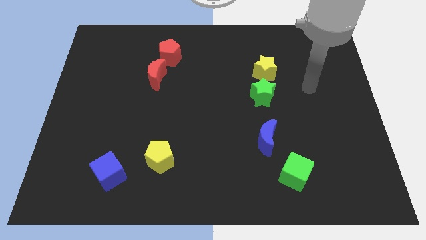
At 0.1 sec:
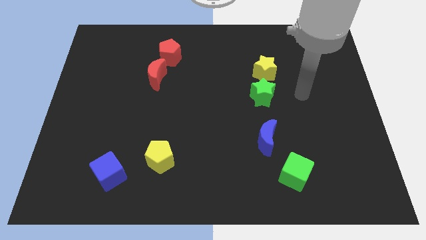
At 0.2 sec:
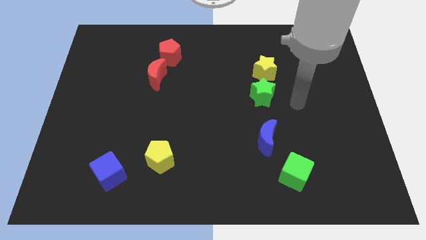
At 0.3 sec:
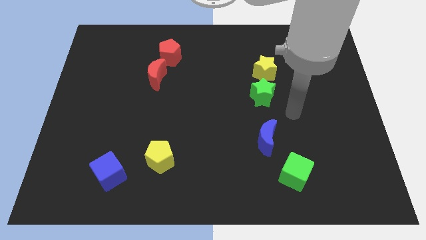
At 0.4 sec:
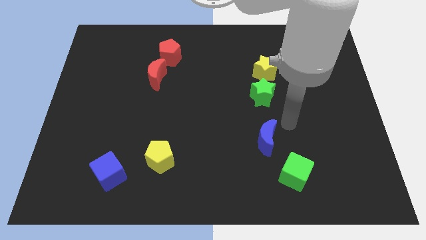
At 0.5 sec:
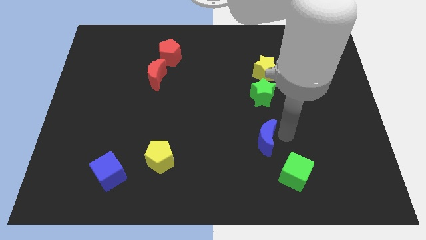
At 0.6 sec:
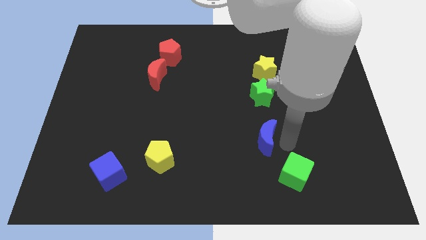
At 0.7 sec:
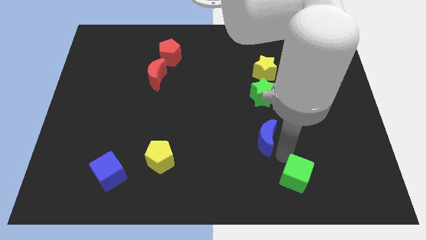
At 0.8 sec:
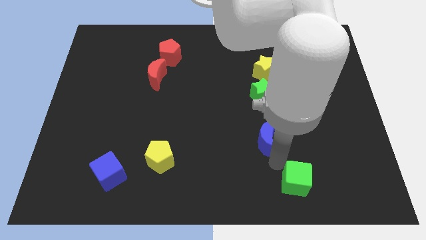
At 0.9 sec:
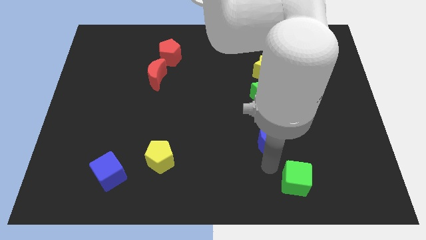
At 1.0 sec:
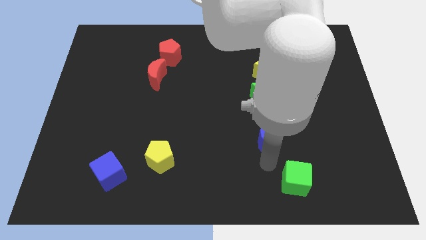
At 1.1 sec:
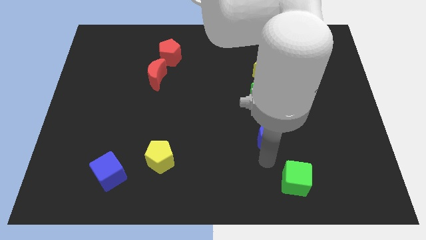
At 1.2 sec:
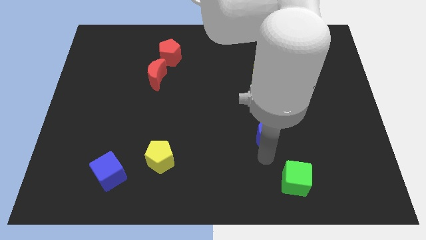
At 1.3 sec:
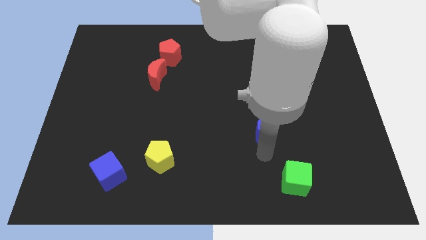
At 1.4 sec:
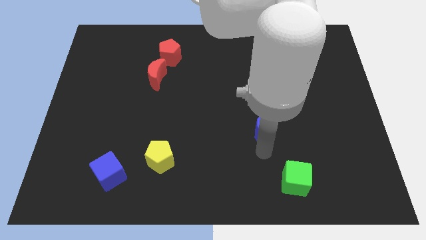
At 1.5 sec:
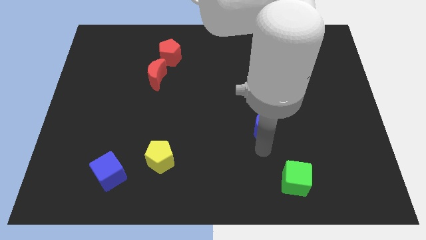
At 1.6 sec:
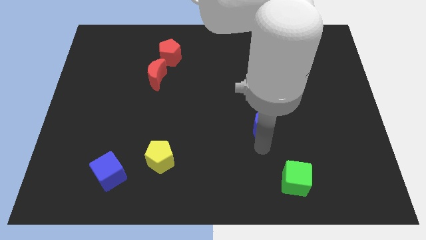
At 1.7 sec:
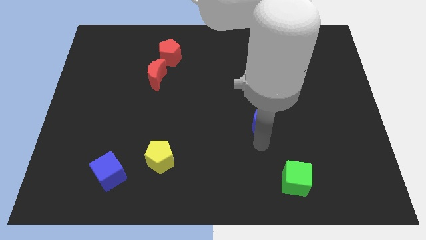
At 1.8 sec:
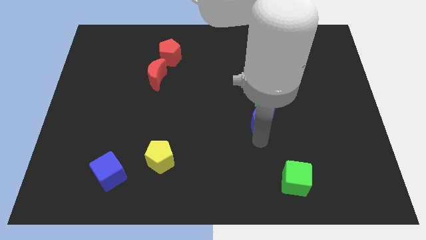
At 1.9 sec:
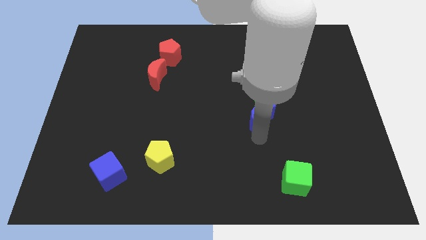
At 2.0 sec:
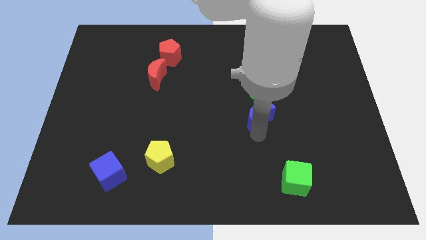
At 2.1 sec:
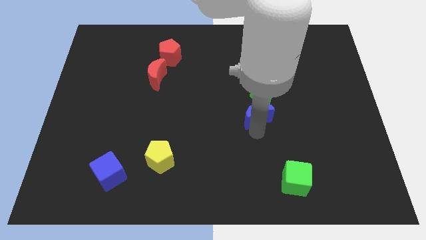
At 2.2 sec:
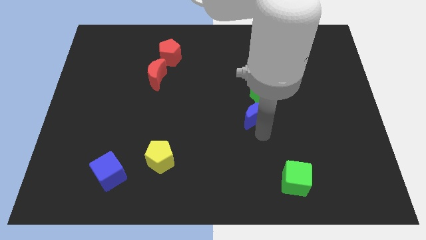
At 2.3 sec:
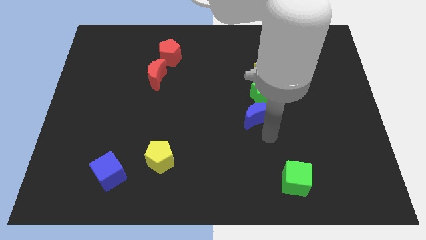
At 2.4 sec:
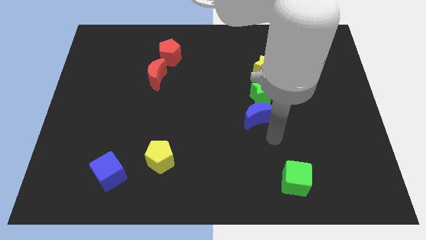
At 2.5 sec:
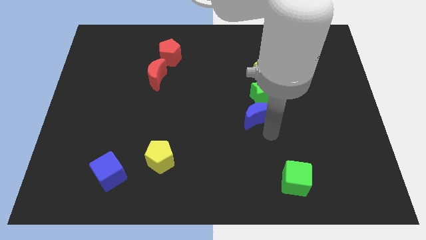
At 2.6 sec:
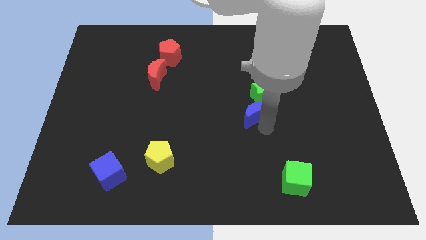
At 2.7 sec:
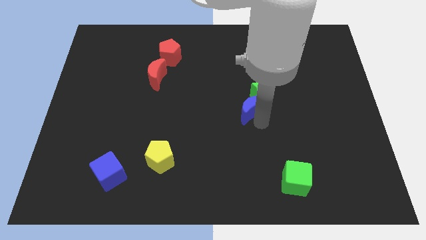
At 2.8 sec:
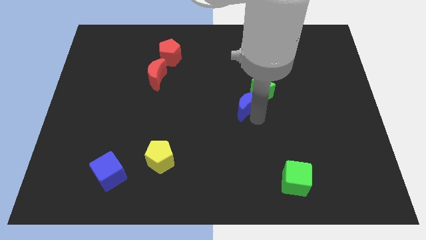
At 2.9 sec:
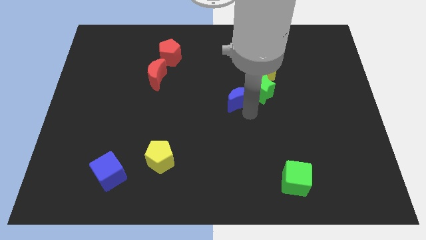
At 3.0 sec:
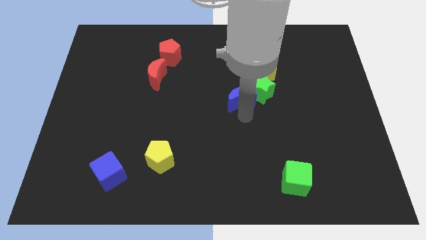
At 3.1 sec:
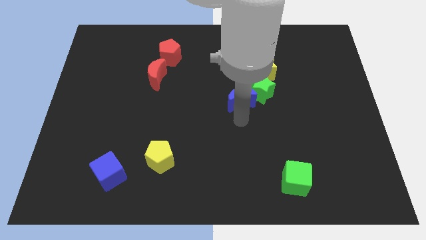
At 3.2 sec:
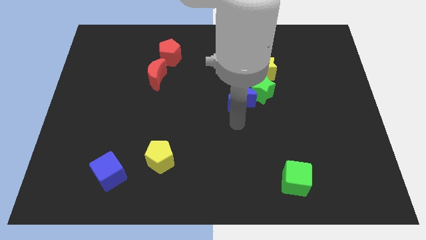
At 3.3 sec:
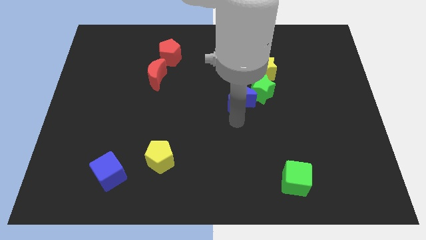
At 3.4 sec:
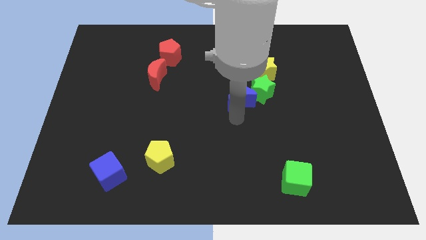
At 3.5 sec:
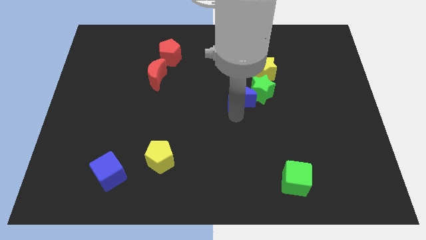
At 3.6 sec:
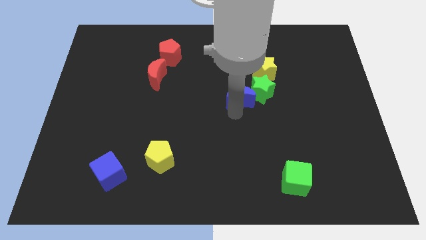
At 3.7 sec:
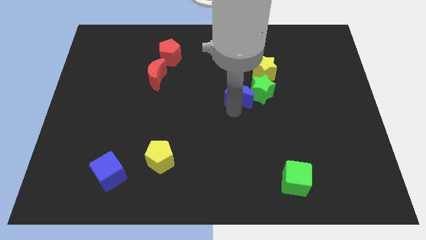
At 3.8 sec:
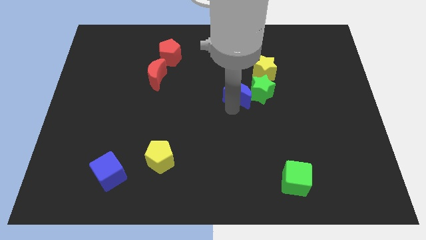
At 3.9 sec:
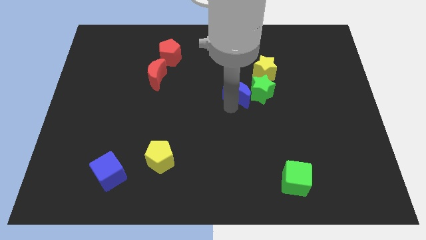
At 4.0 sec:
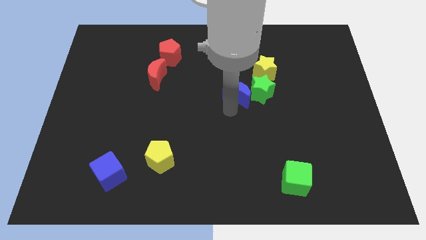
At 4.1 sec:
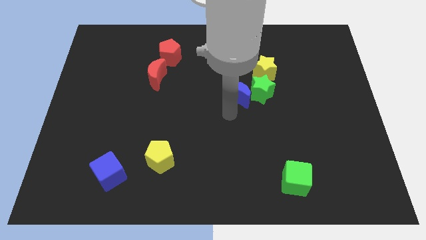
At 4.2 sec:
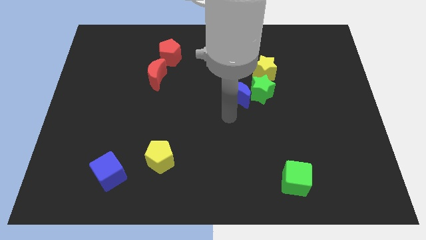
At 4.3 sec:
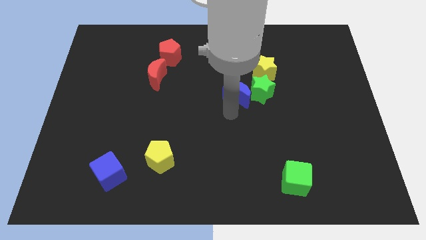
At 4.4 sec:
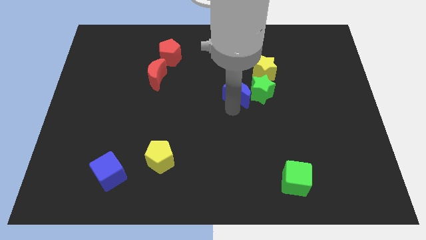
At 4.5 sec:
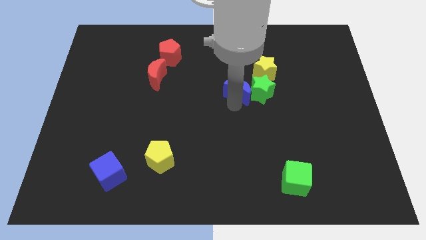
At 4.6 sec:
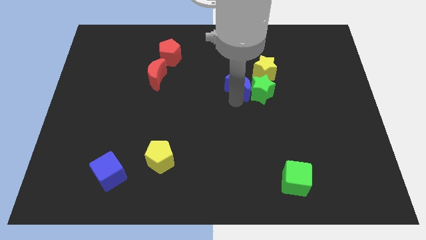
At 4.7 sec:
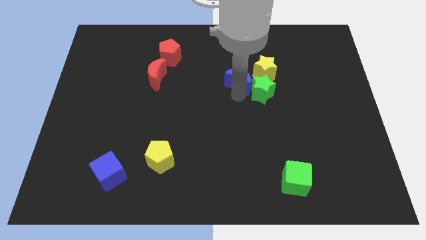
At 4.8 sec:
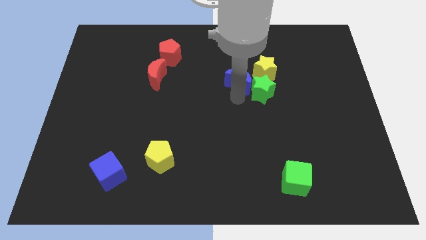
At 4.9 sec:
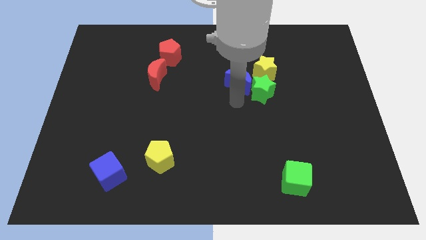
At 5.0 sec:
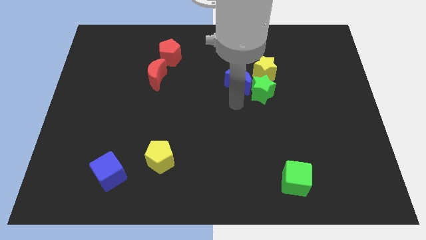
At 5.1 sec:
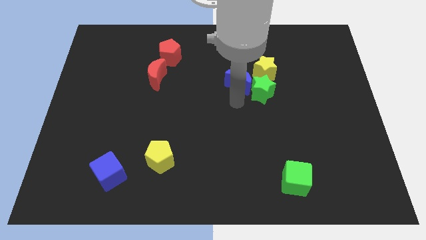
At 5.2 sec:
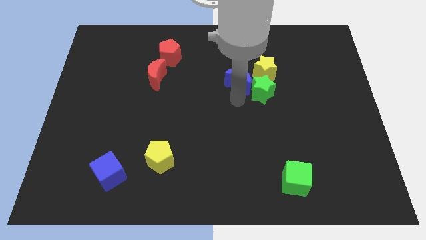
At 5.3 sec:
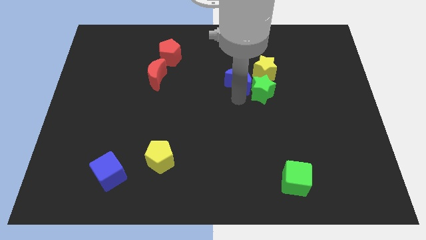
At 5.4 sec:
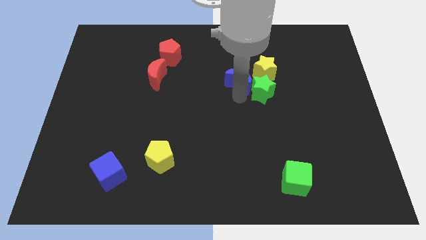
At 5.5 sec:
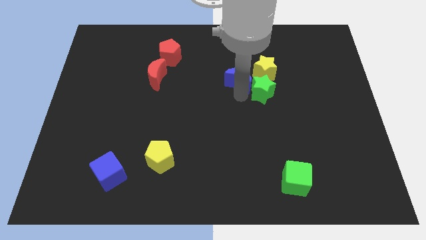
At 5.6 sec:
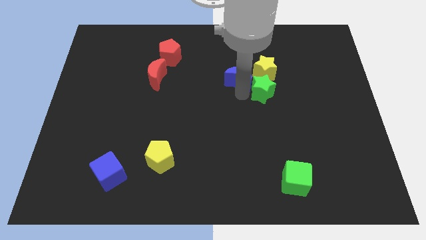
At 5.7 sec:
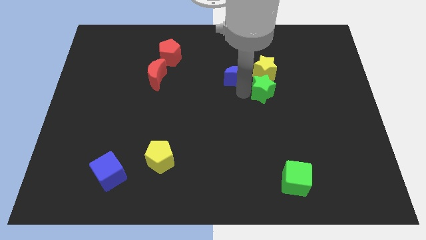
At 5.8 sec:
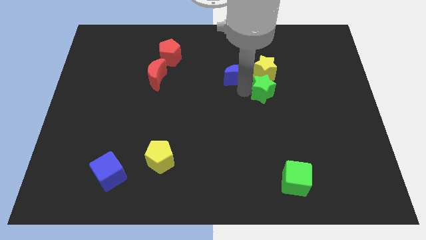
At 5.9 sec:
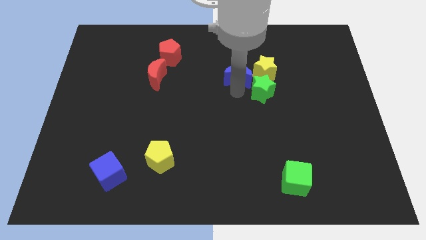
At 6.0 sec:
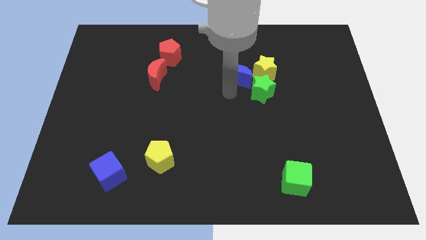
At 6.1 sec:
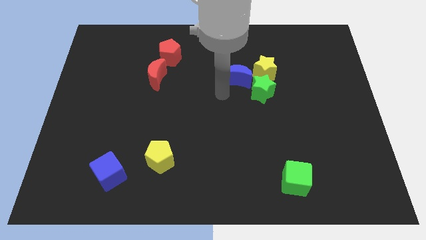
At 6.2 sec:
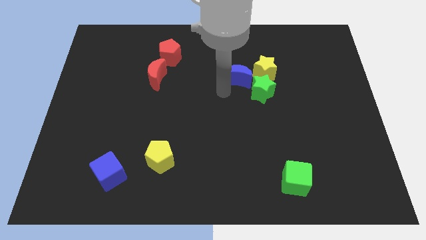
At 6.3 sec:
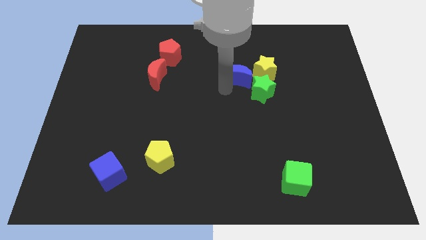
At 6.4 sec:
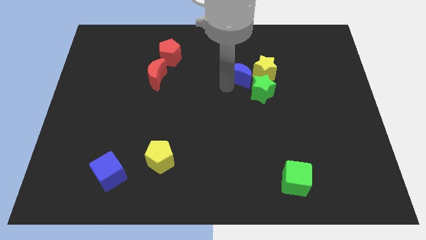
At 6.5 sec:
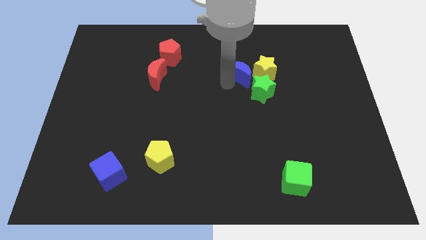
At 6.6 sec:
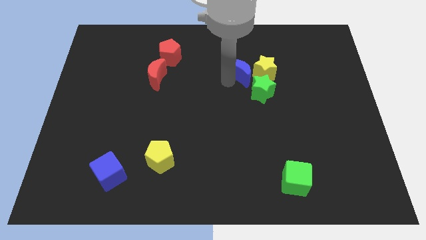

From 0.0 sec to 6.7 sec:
put the blue moon to the top of the green star
